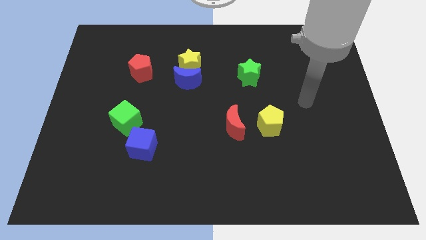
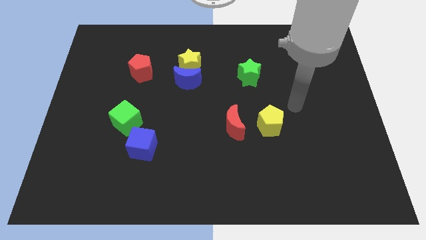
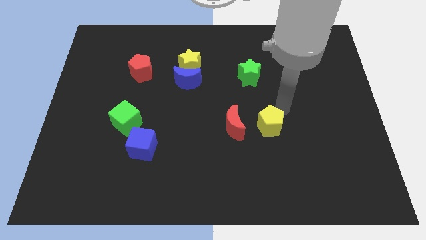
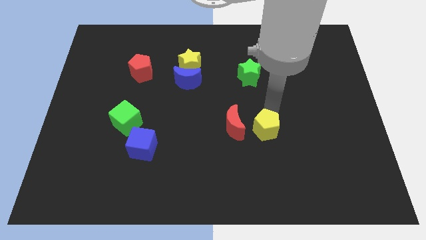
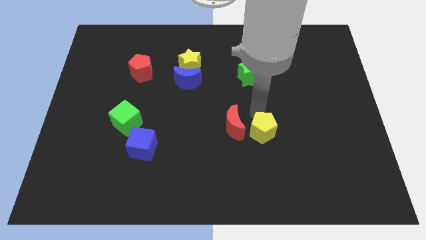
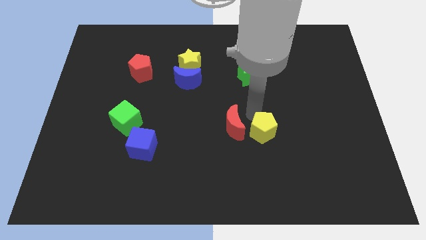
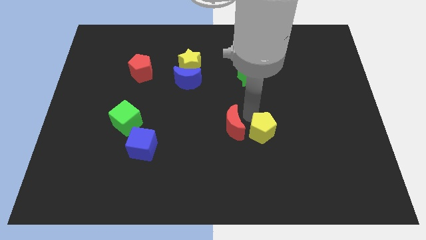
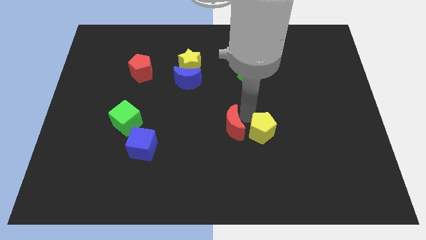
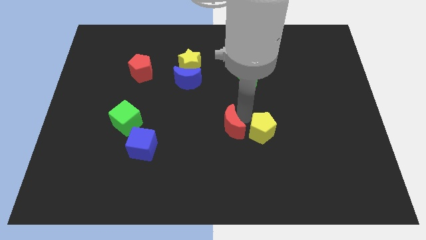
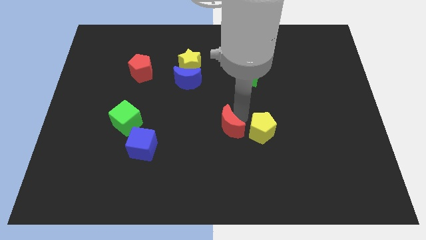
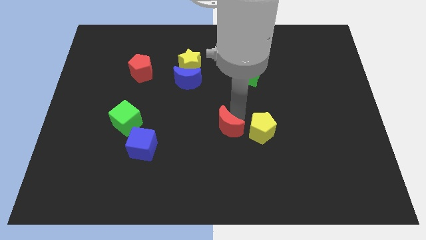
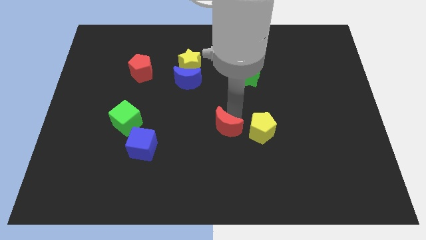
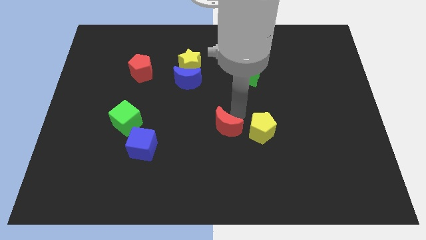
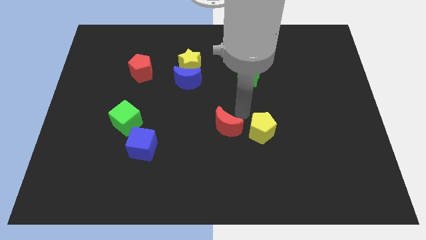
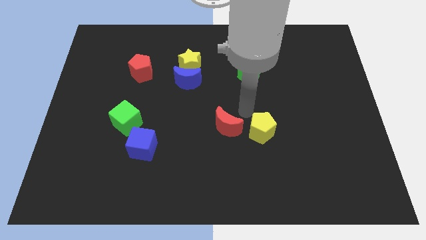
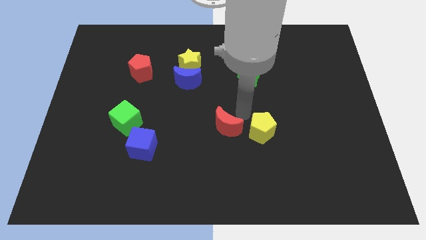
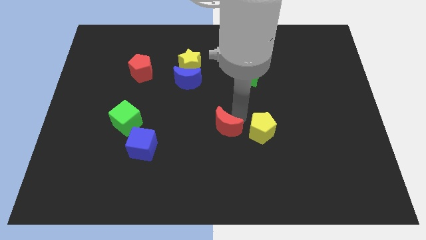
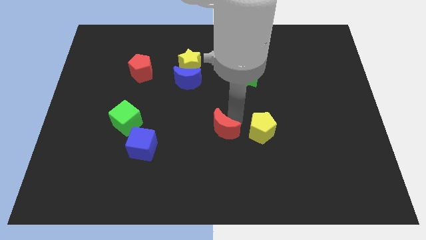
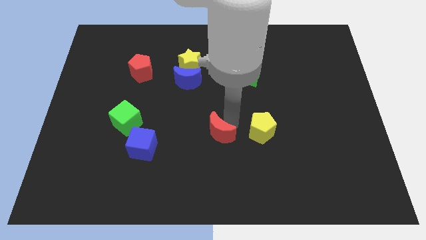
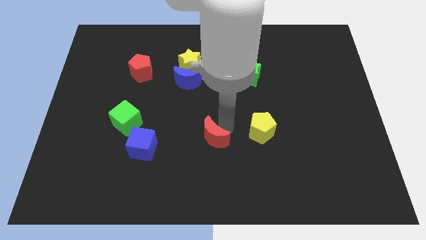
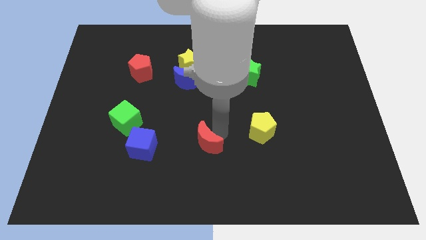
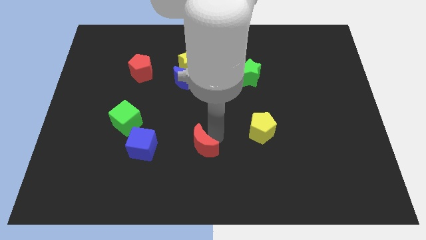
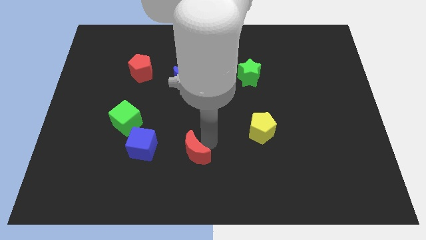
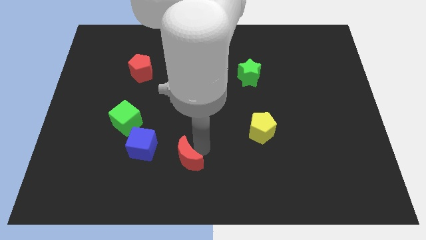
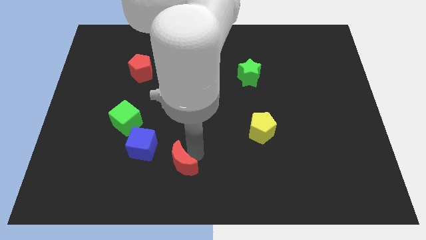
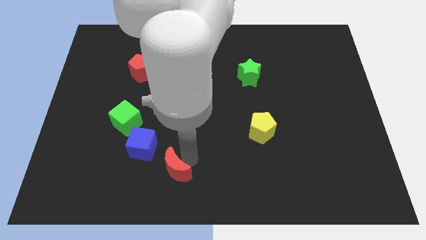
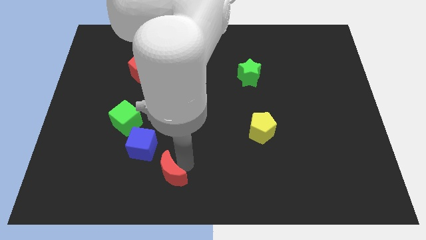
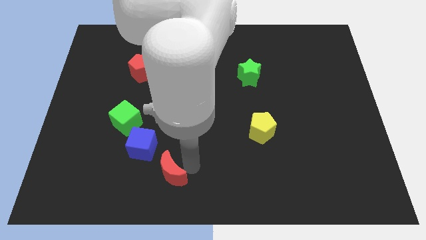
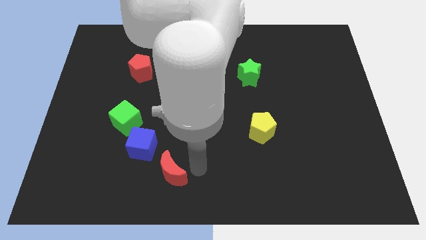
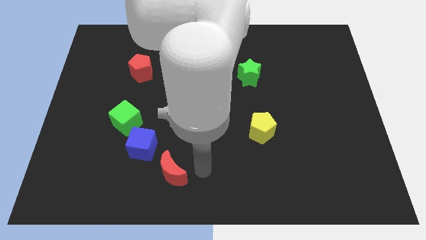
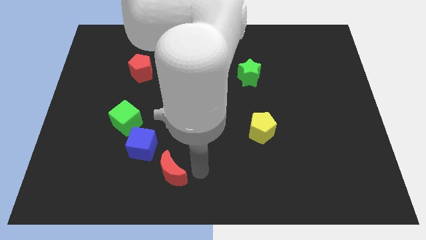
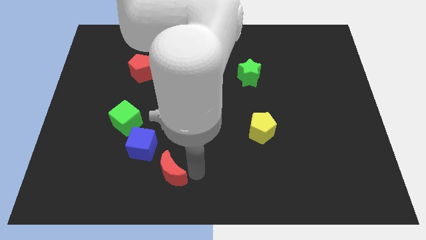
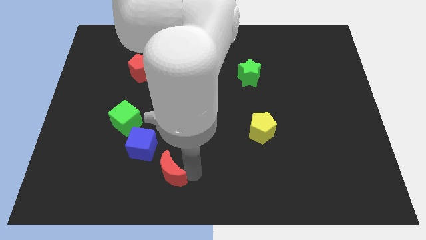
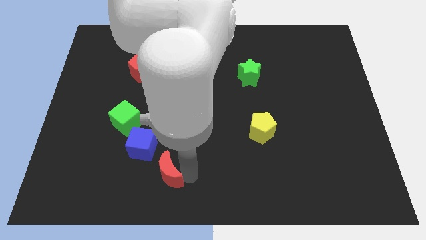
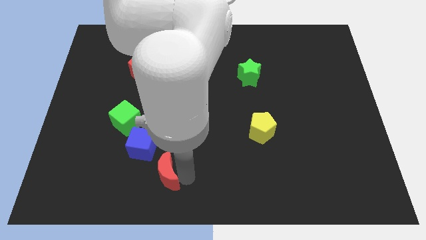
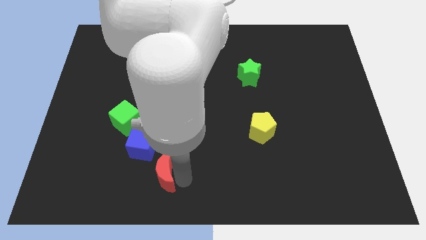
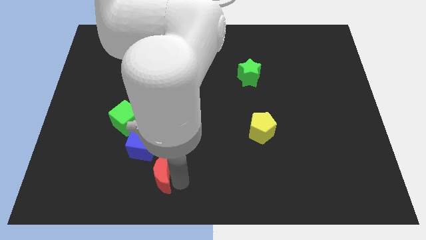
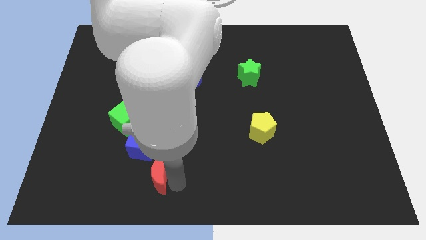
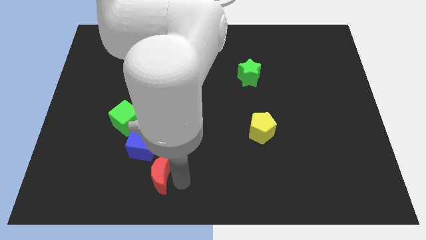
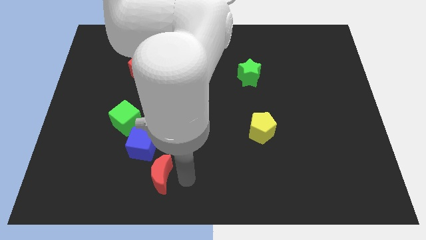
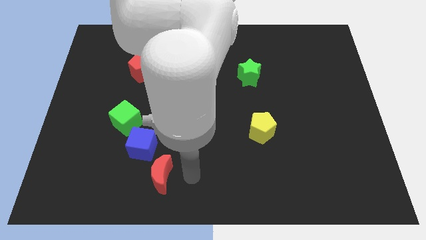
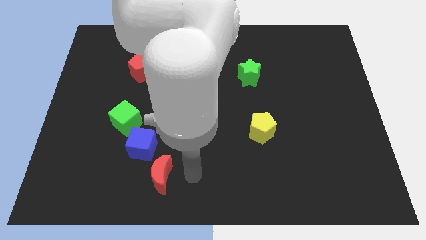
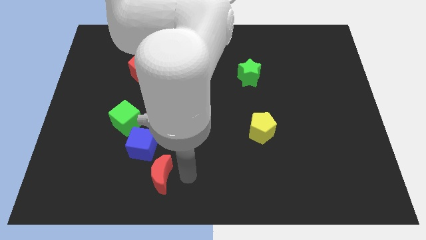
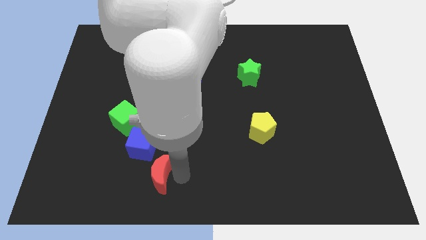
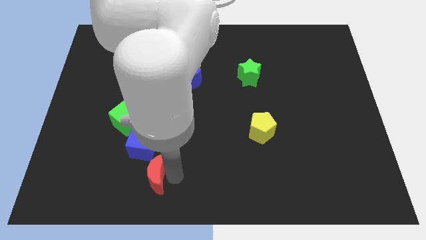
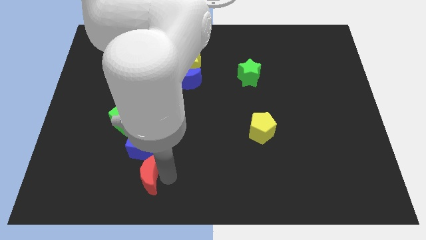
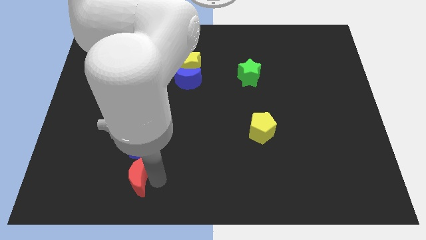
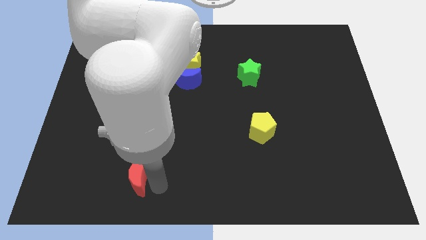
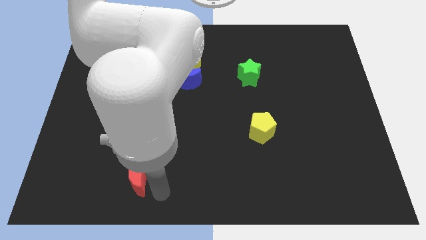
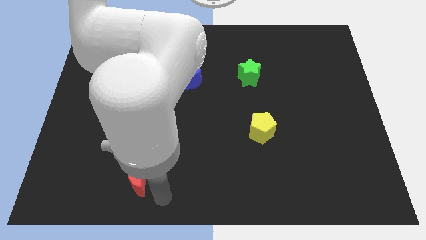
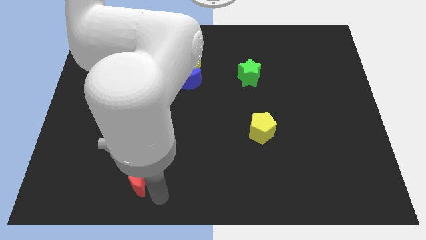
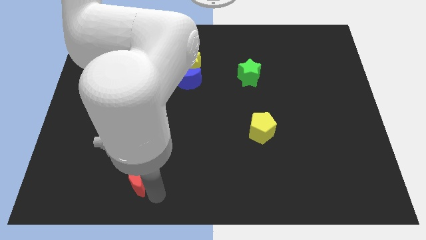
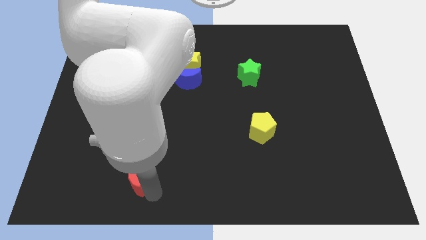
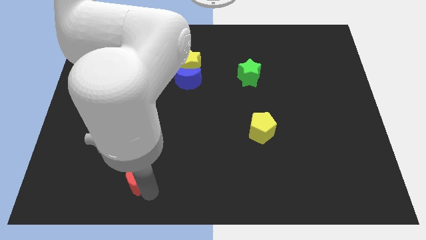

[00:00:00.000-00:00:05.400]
push the red moon below the green cube

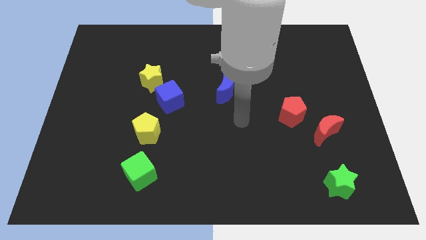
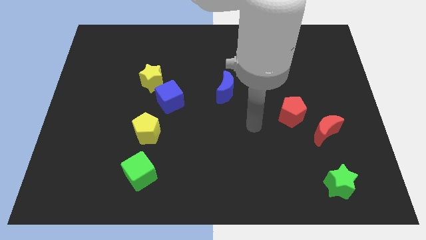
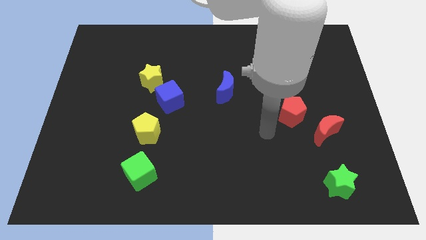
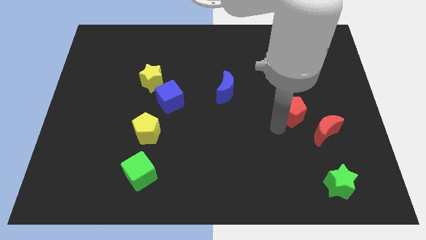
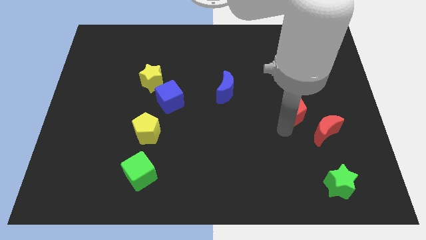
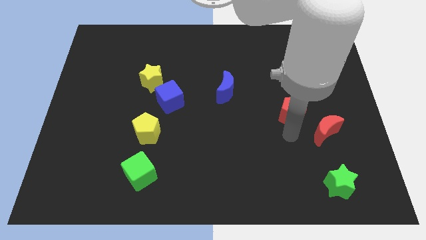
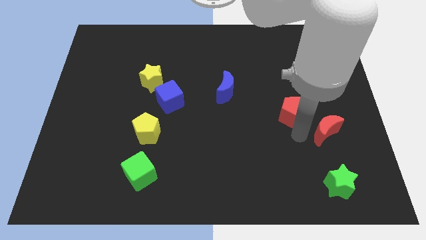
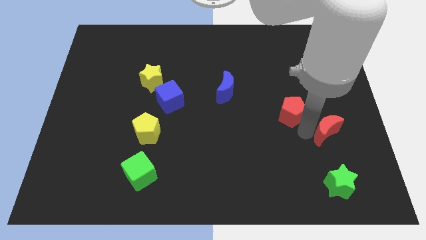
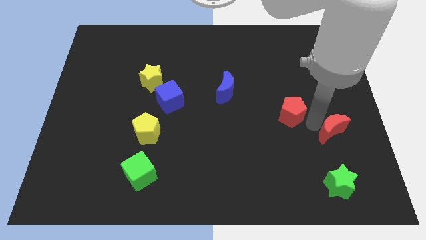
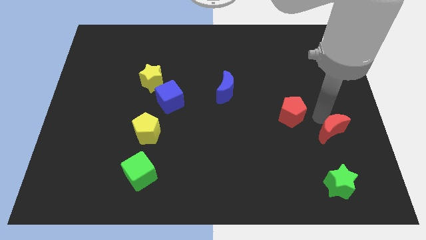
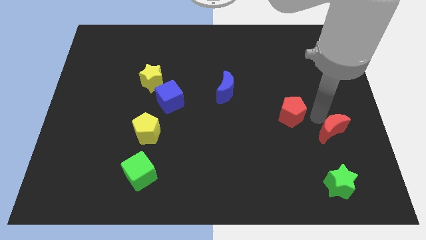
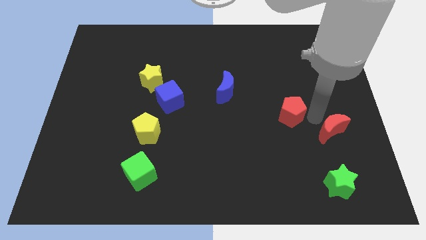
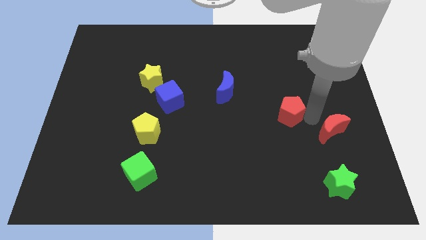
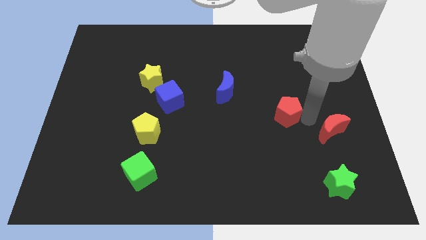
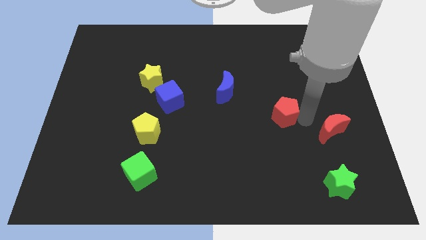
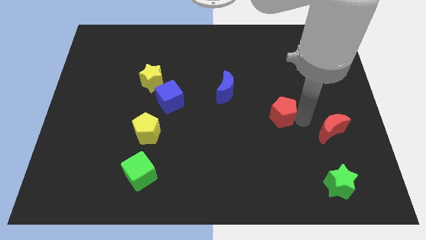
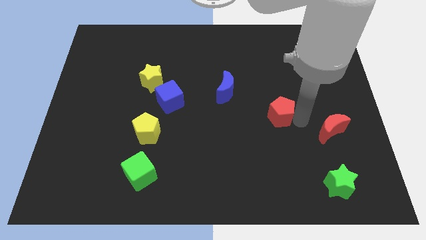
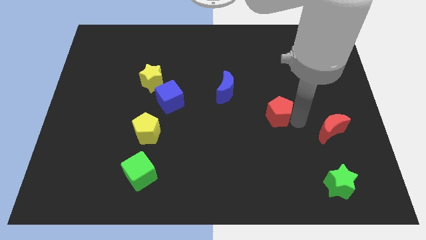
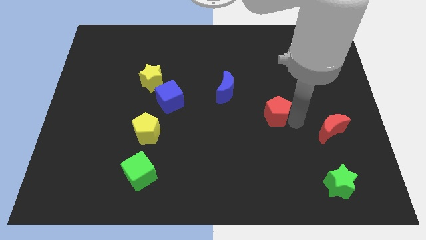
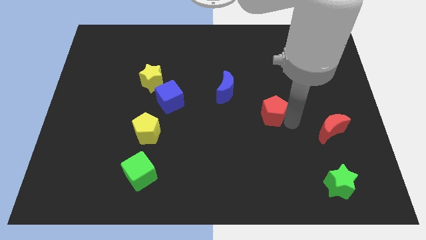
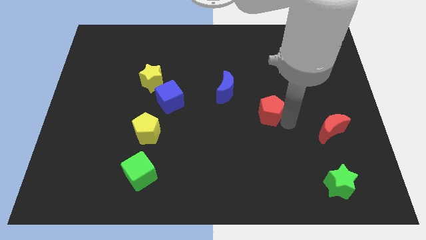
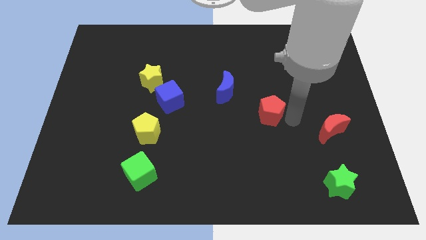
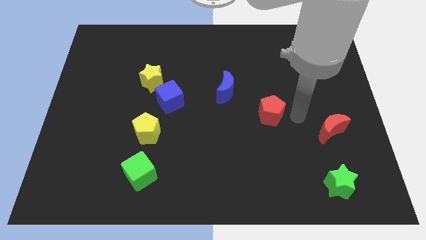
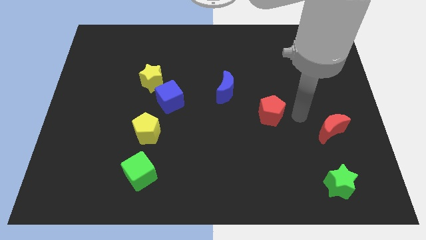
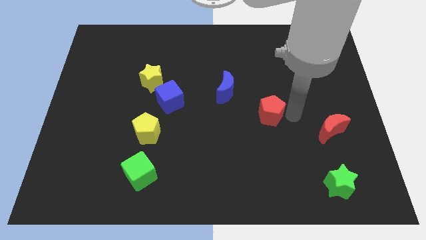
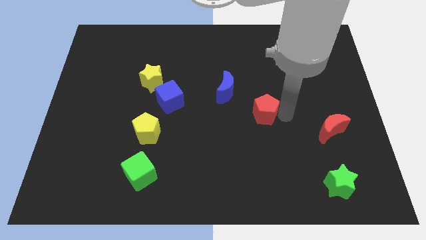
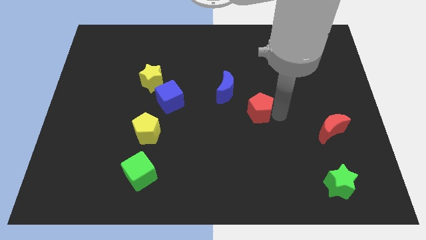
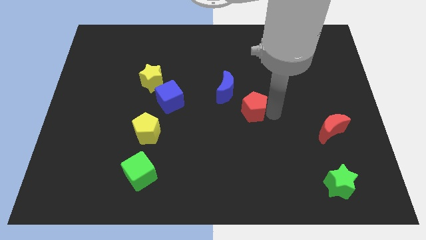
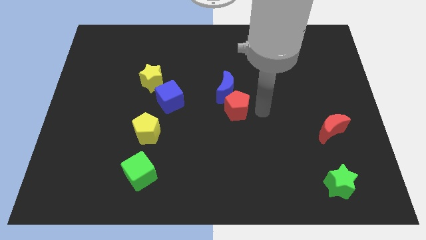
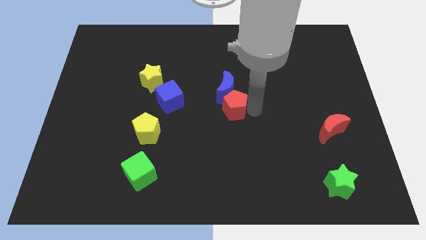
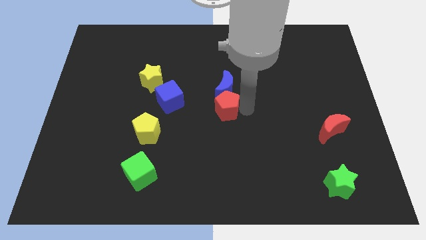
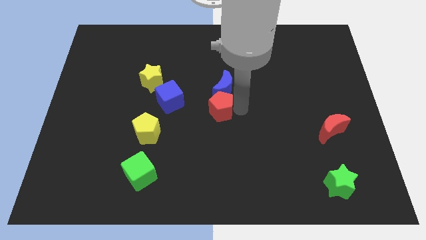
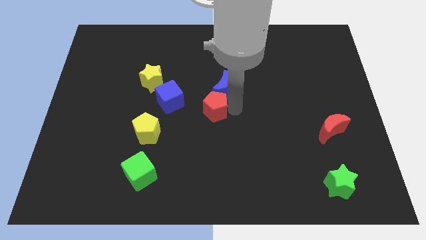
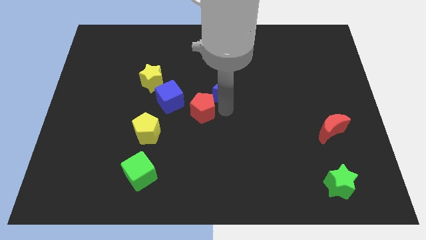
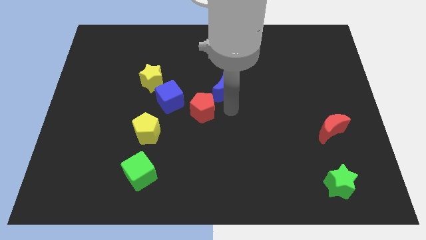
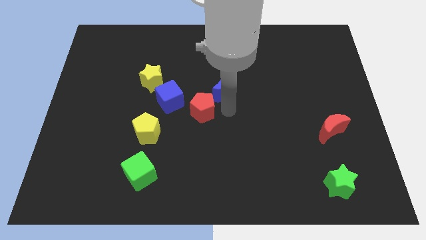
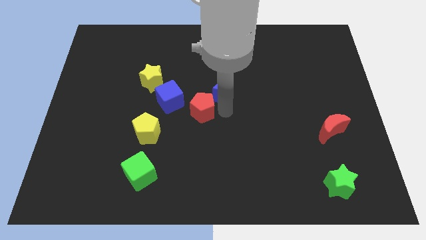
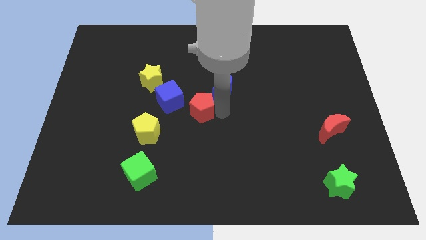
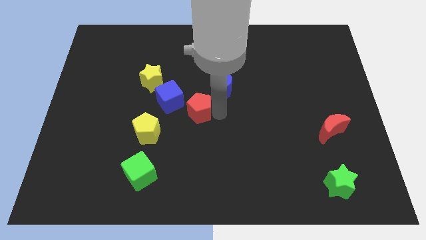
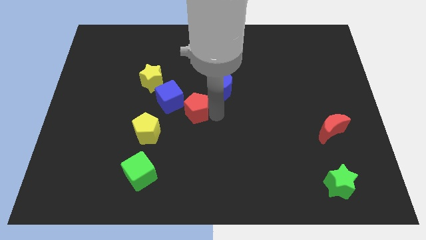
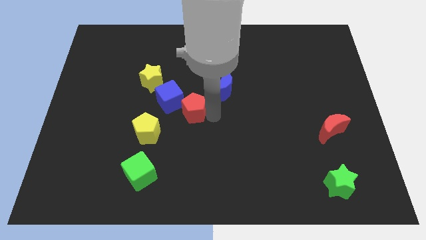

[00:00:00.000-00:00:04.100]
move the red pentagon to the top right of the yellow pentagon
